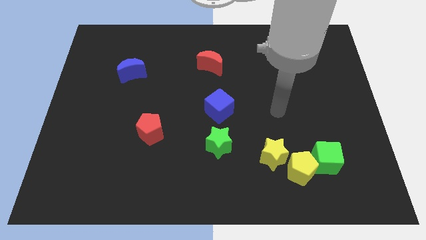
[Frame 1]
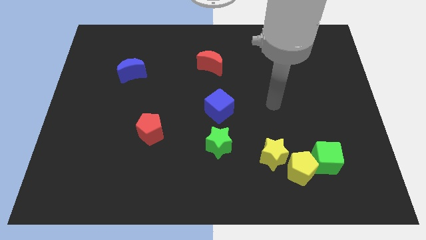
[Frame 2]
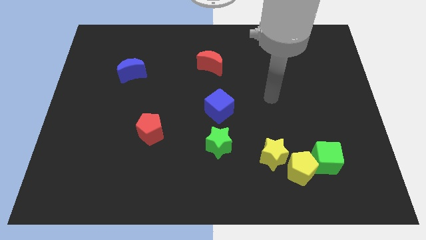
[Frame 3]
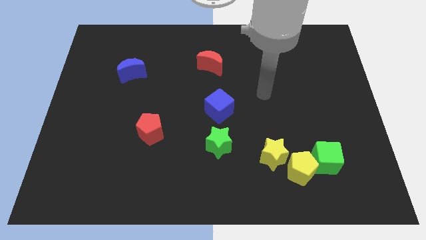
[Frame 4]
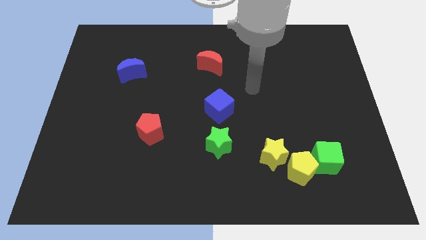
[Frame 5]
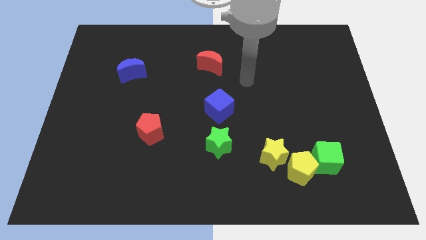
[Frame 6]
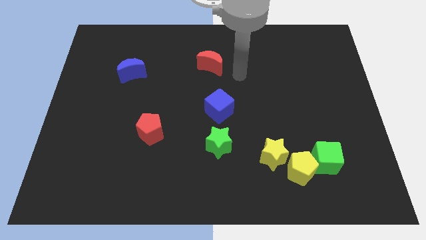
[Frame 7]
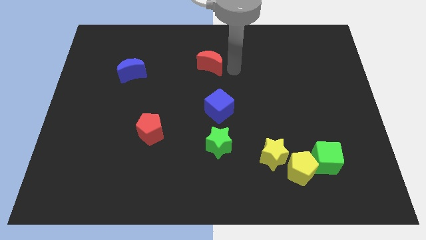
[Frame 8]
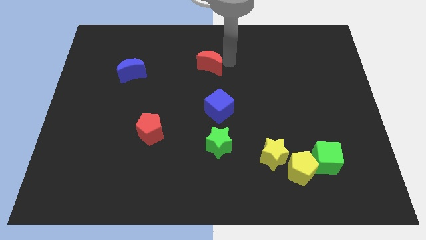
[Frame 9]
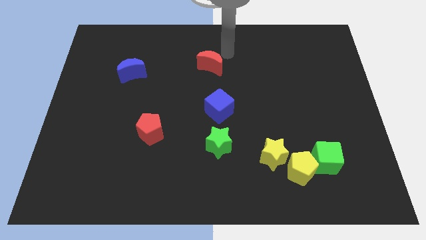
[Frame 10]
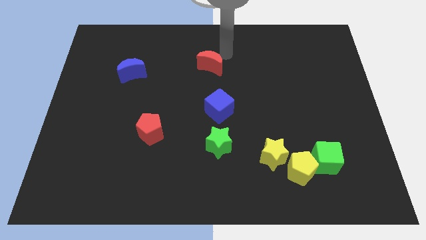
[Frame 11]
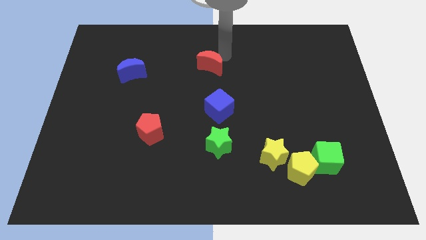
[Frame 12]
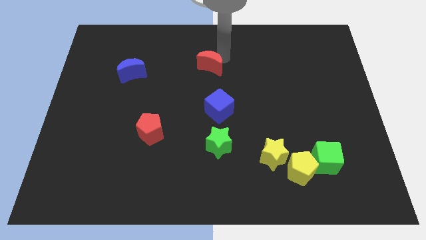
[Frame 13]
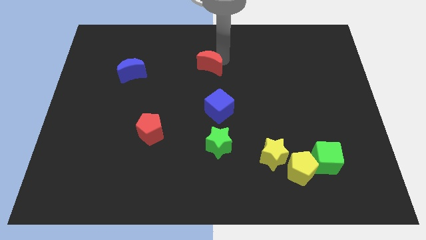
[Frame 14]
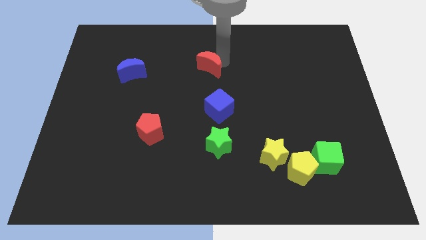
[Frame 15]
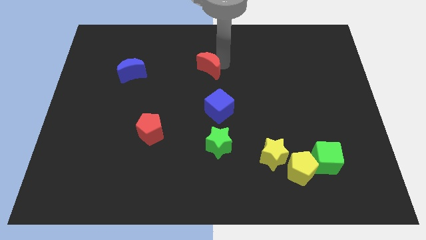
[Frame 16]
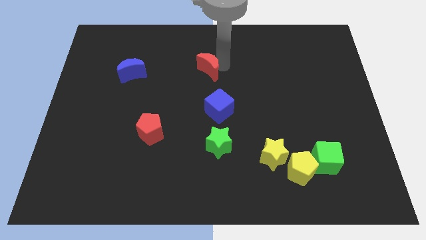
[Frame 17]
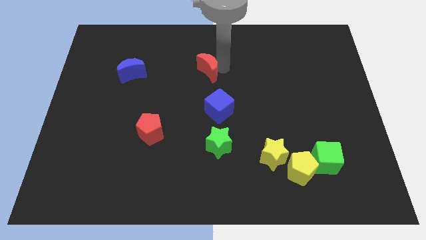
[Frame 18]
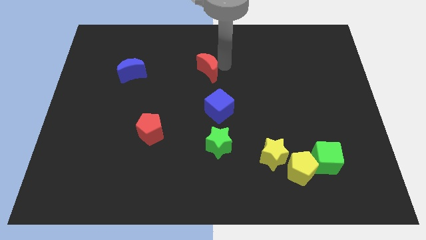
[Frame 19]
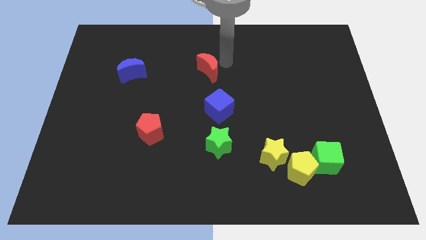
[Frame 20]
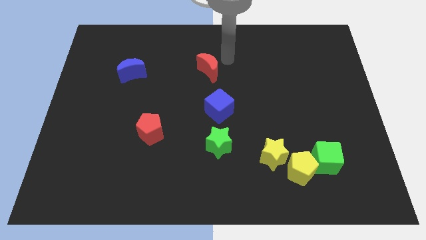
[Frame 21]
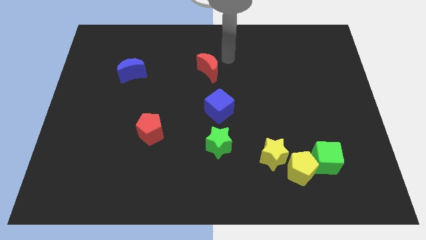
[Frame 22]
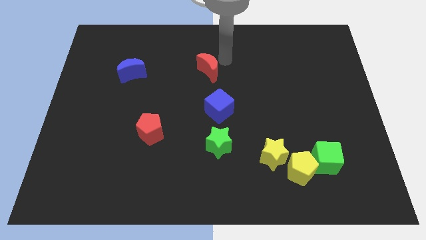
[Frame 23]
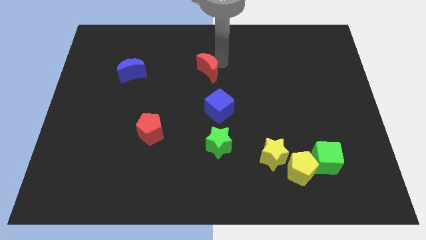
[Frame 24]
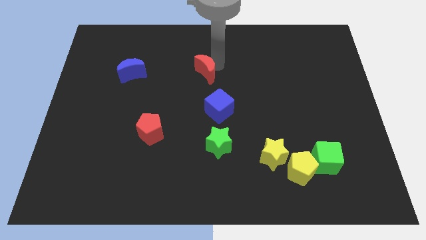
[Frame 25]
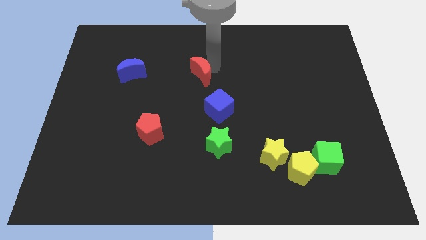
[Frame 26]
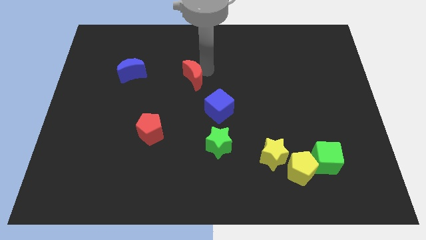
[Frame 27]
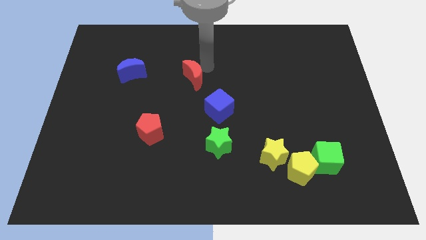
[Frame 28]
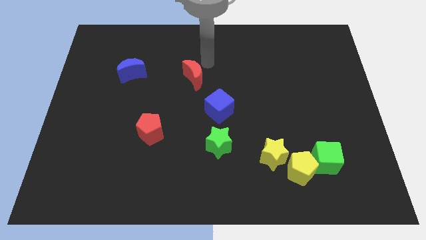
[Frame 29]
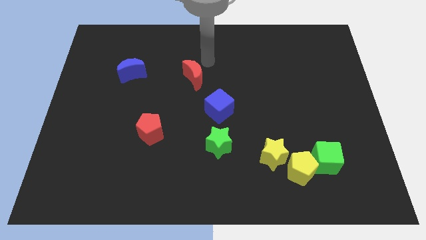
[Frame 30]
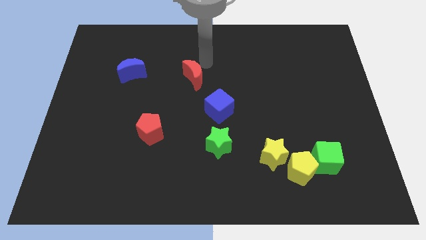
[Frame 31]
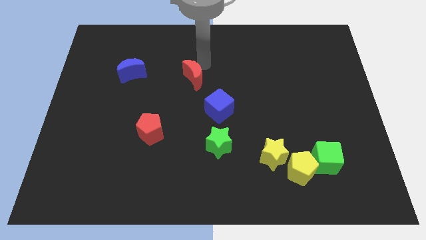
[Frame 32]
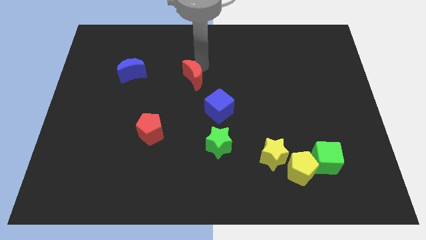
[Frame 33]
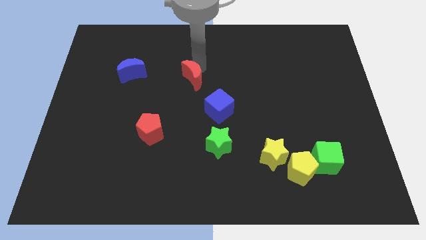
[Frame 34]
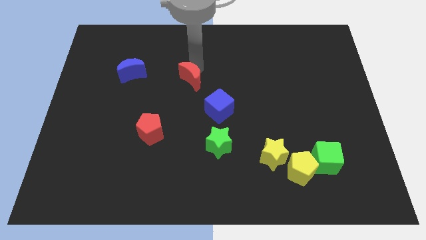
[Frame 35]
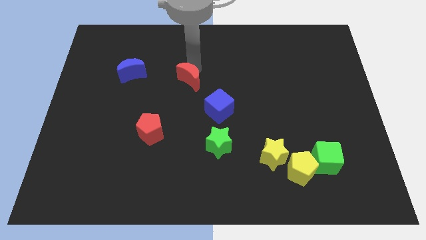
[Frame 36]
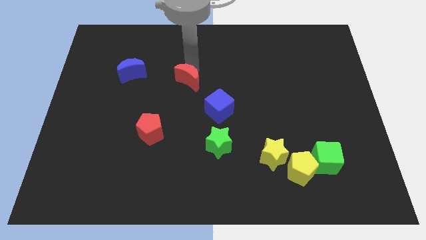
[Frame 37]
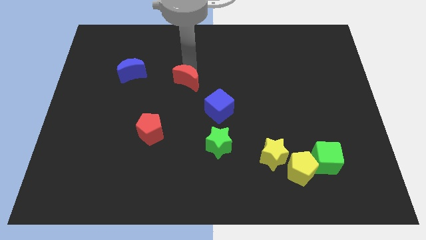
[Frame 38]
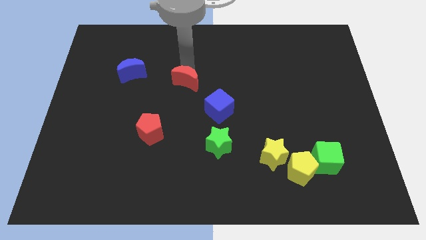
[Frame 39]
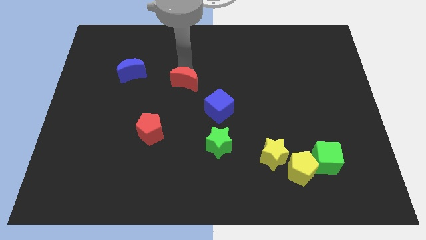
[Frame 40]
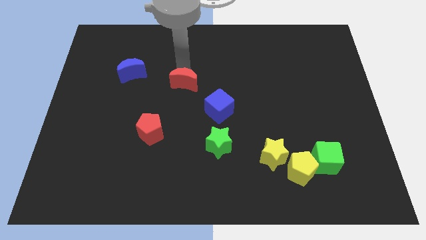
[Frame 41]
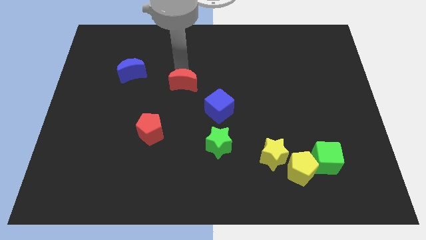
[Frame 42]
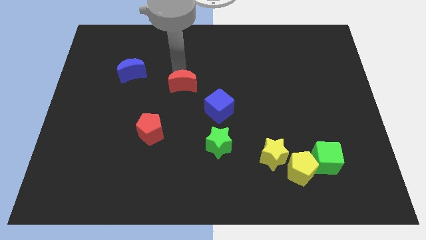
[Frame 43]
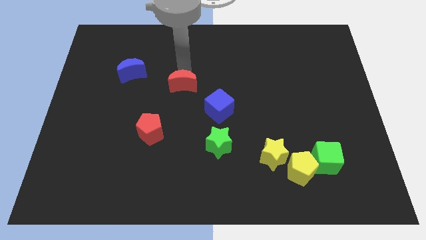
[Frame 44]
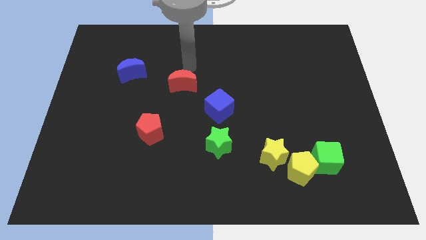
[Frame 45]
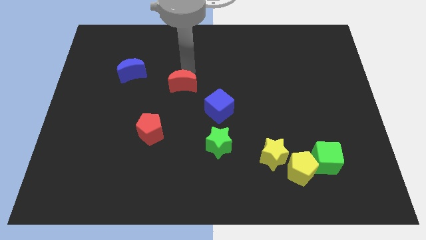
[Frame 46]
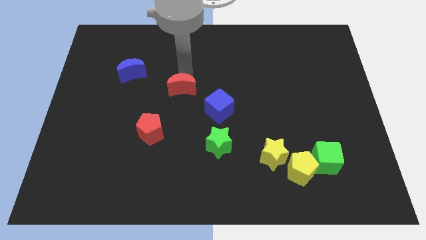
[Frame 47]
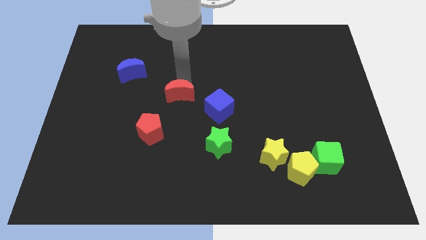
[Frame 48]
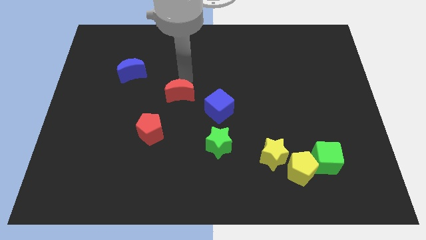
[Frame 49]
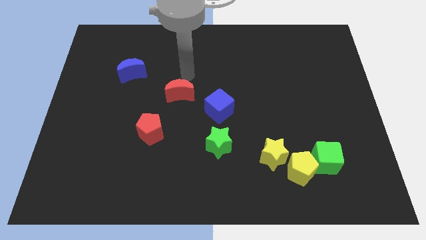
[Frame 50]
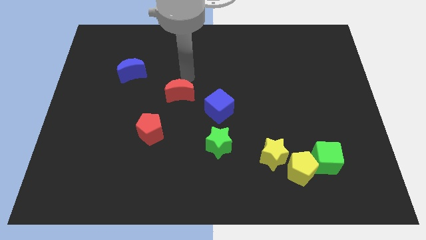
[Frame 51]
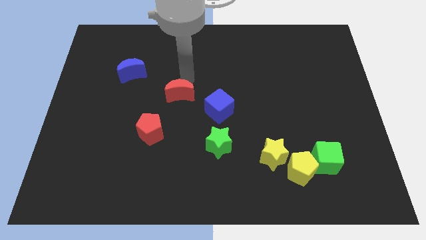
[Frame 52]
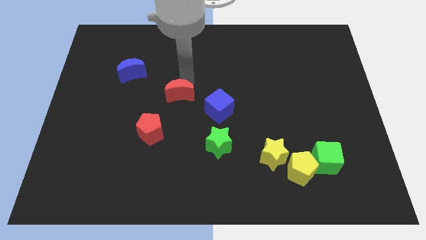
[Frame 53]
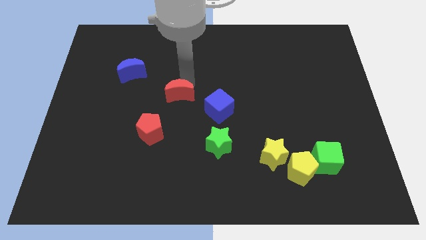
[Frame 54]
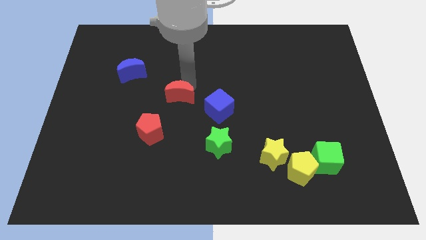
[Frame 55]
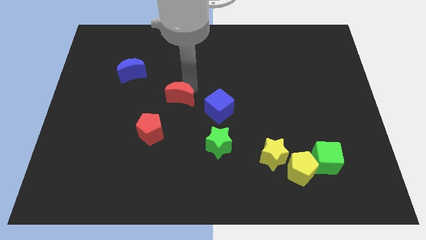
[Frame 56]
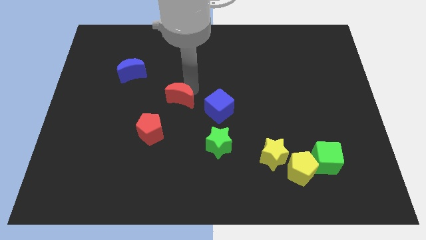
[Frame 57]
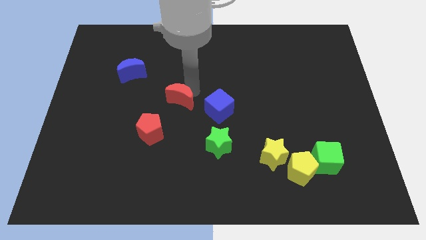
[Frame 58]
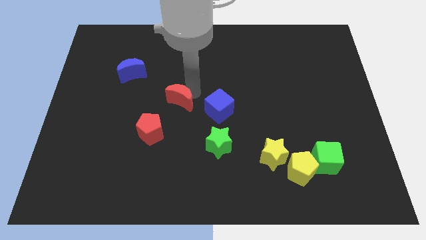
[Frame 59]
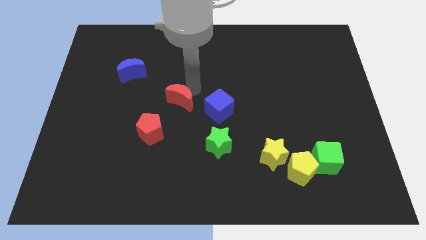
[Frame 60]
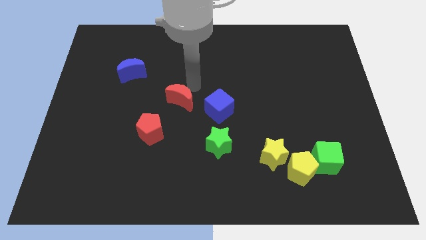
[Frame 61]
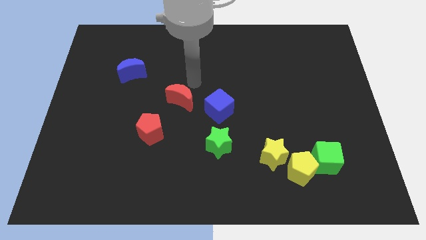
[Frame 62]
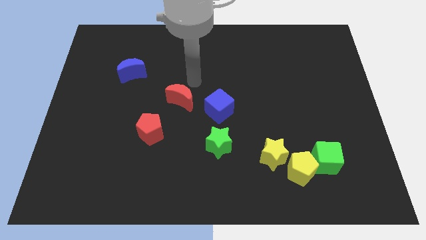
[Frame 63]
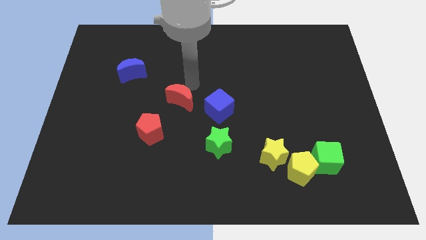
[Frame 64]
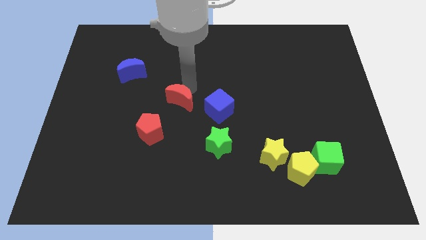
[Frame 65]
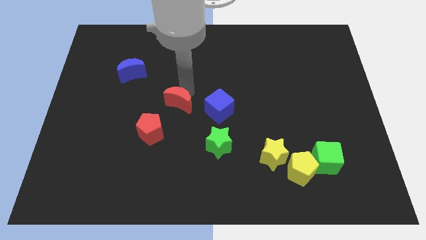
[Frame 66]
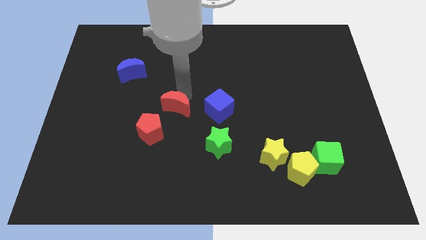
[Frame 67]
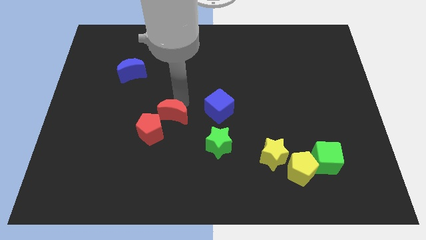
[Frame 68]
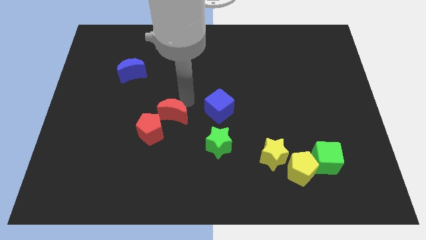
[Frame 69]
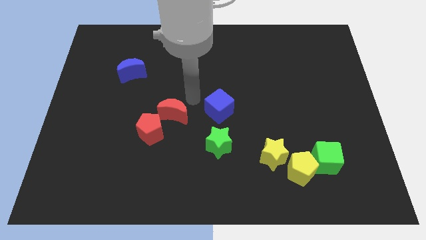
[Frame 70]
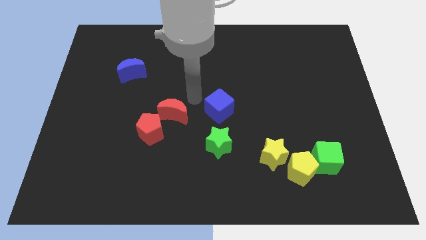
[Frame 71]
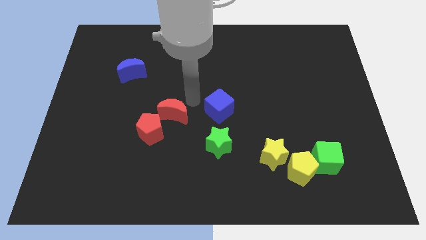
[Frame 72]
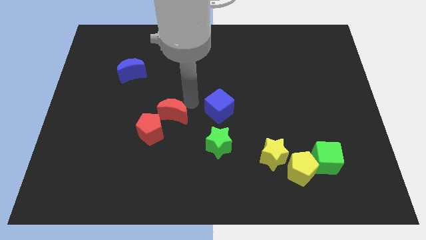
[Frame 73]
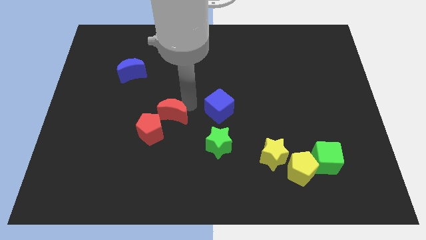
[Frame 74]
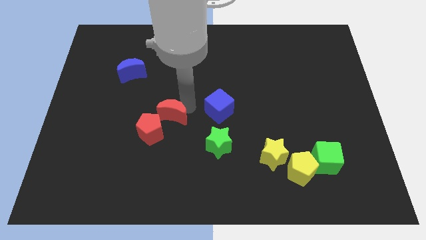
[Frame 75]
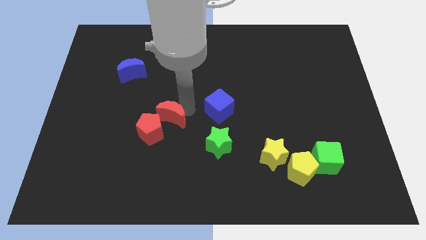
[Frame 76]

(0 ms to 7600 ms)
move the red moon close to the red pentagon
